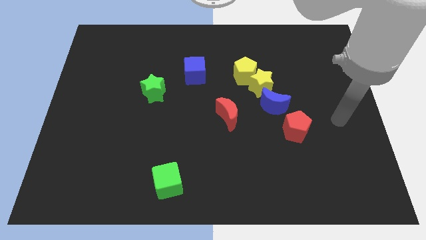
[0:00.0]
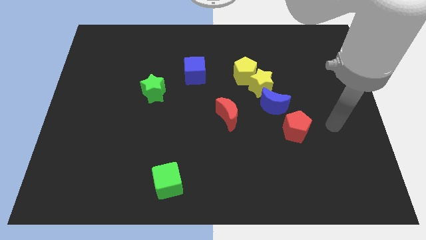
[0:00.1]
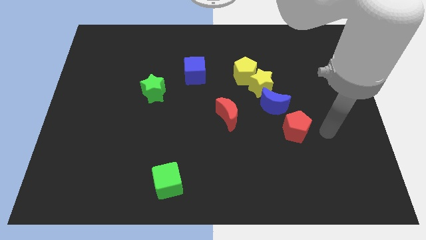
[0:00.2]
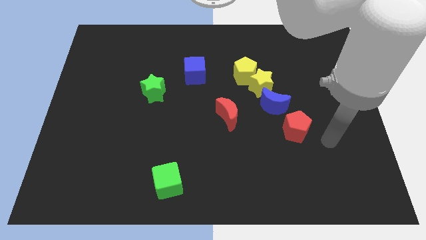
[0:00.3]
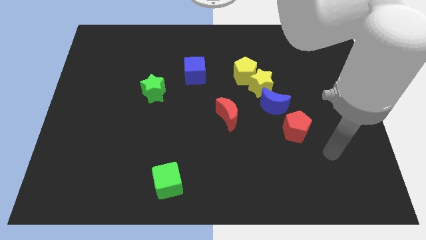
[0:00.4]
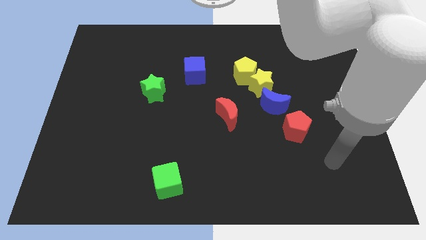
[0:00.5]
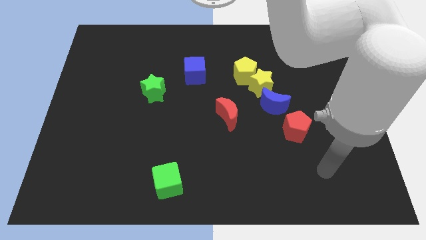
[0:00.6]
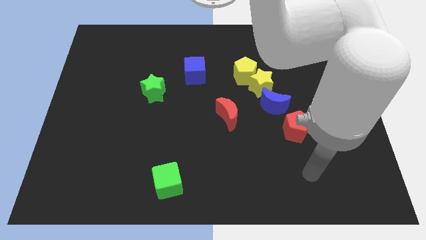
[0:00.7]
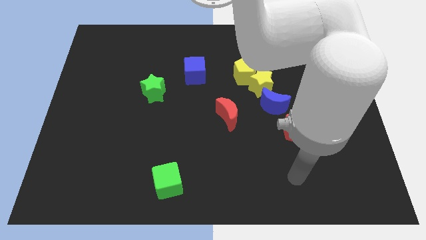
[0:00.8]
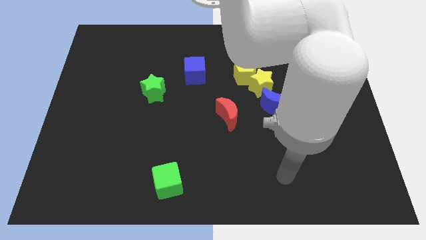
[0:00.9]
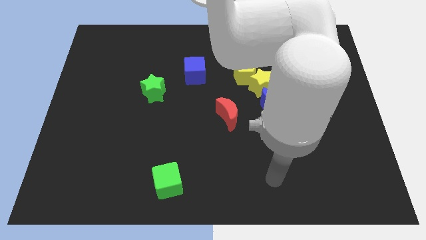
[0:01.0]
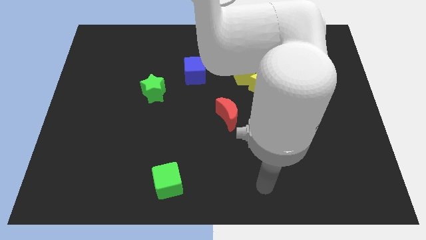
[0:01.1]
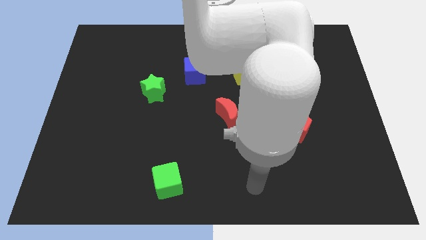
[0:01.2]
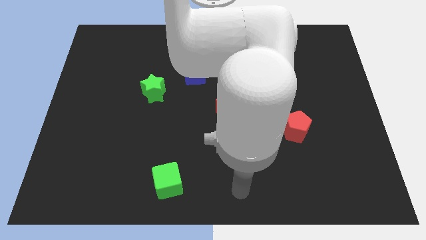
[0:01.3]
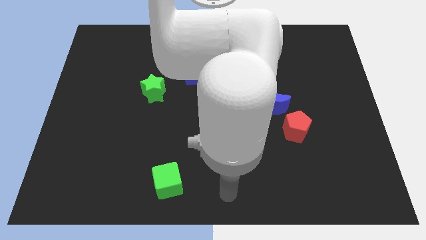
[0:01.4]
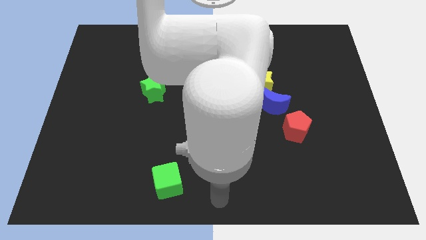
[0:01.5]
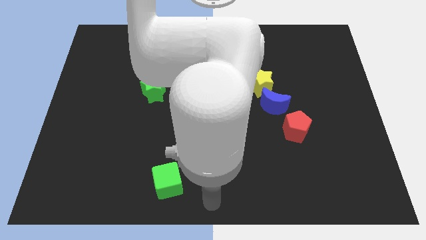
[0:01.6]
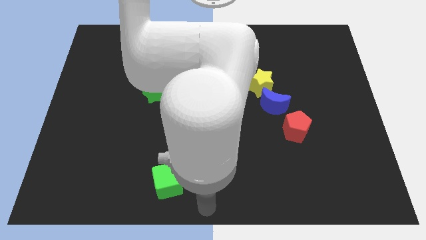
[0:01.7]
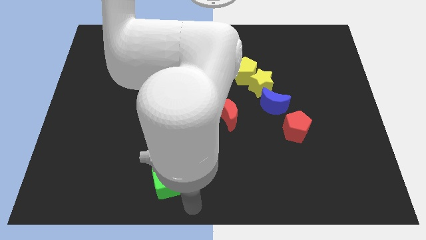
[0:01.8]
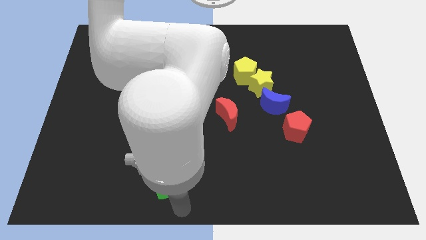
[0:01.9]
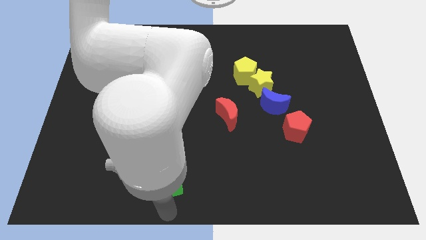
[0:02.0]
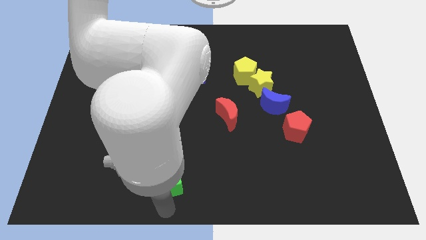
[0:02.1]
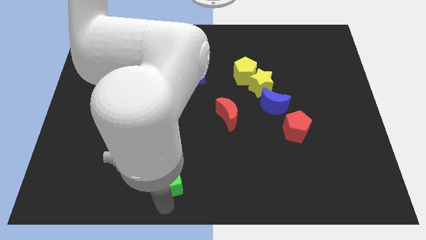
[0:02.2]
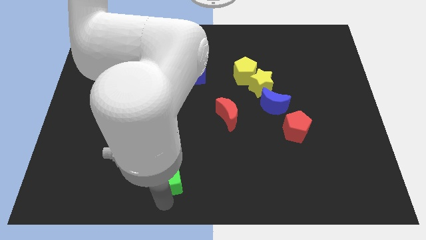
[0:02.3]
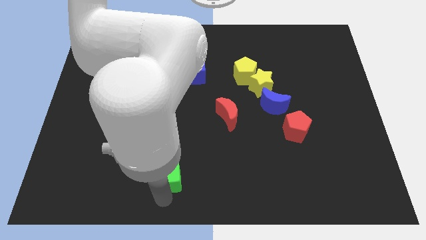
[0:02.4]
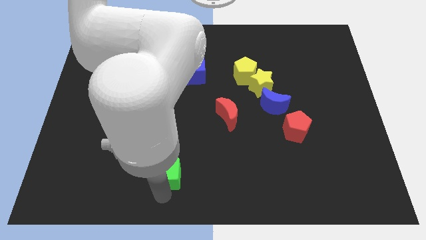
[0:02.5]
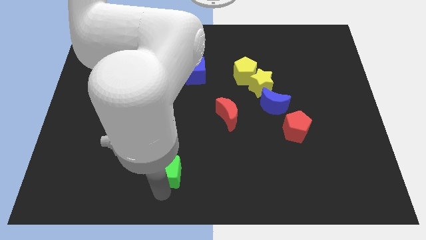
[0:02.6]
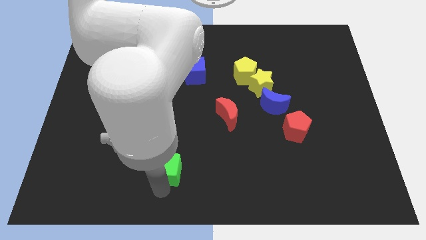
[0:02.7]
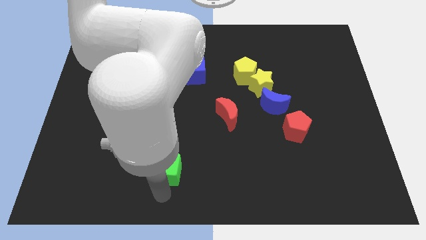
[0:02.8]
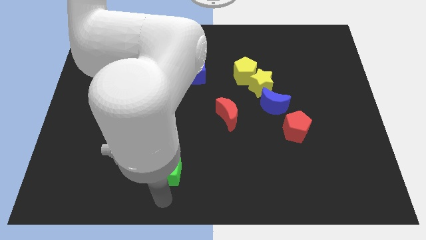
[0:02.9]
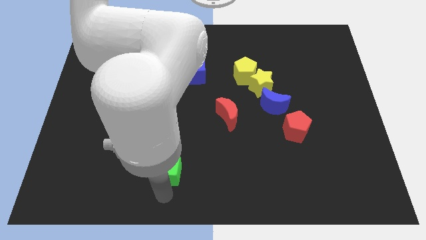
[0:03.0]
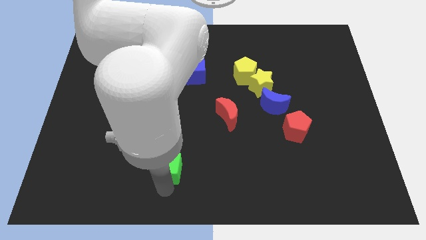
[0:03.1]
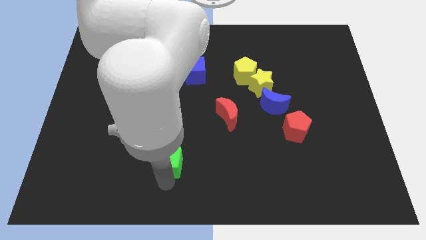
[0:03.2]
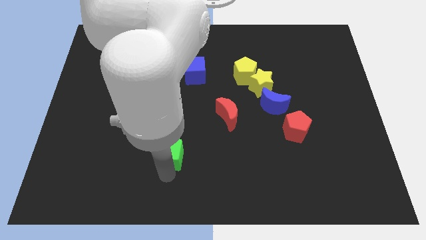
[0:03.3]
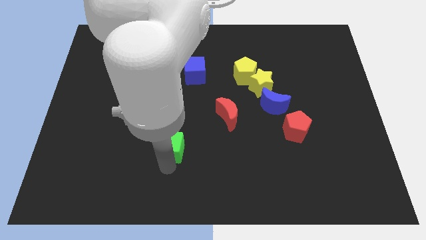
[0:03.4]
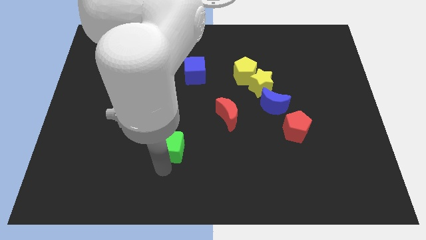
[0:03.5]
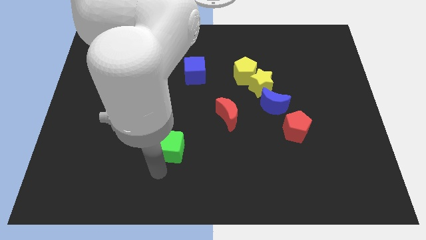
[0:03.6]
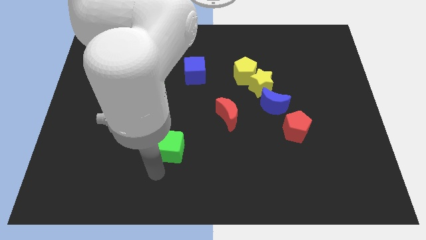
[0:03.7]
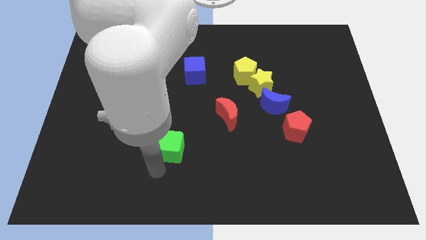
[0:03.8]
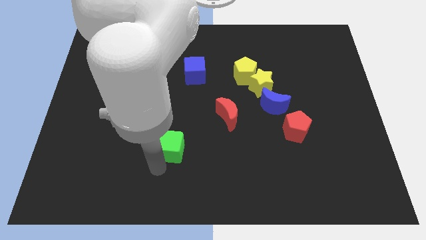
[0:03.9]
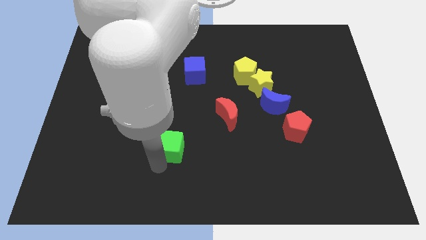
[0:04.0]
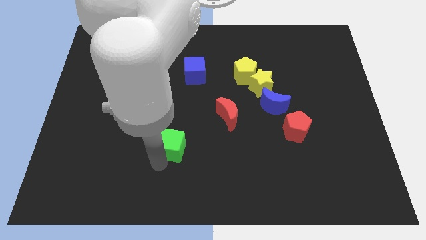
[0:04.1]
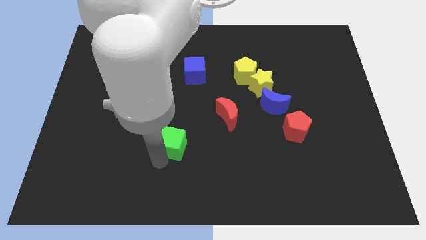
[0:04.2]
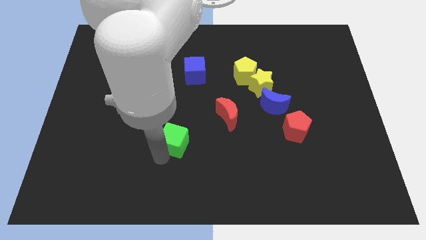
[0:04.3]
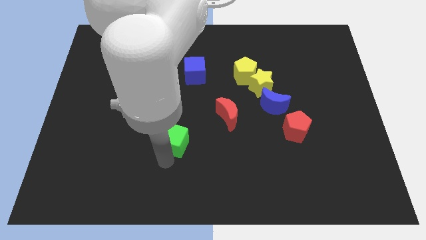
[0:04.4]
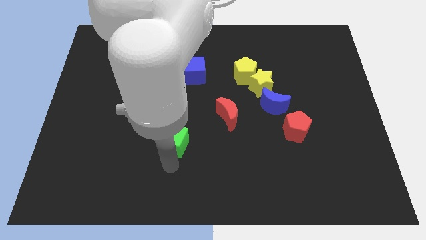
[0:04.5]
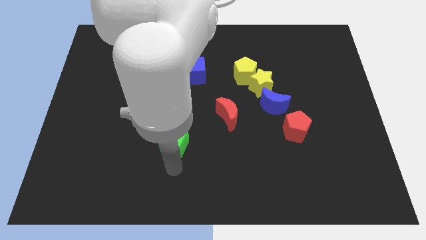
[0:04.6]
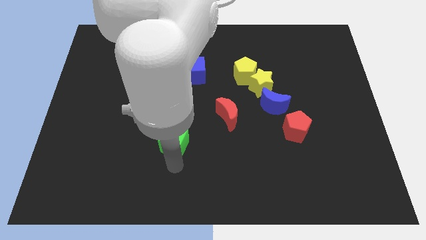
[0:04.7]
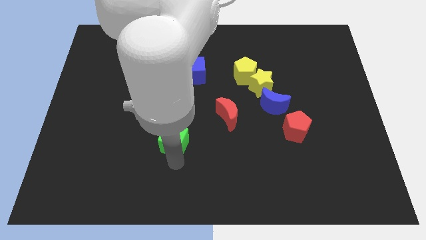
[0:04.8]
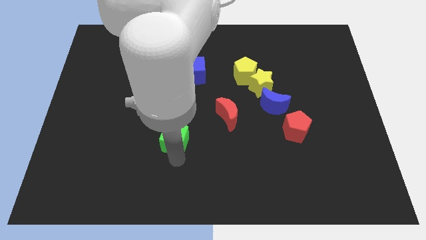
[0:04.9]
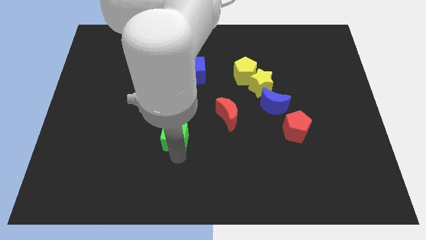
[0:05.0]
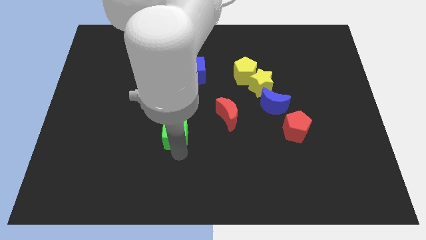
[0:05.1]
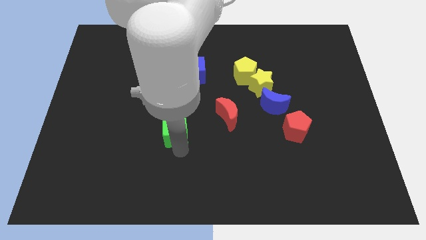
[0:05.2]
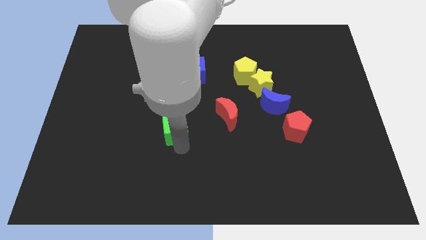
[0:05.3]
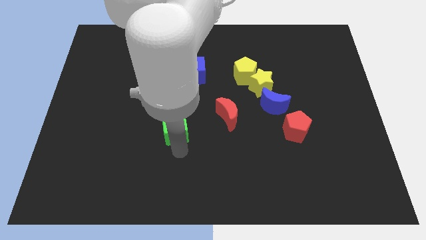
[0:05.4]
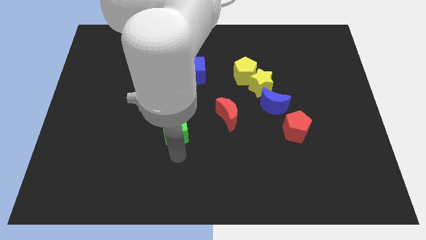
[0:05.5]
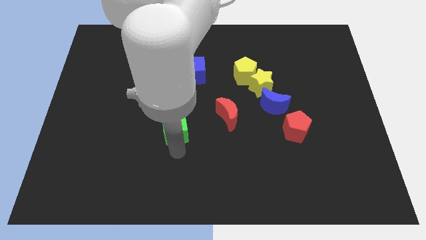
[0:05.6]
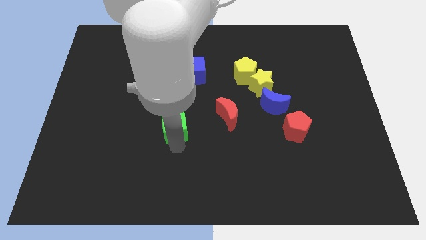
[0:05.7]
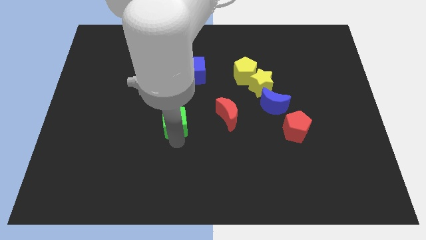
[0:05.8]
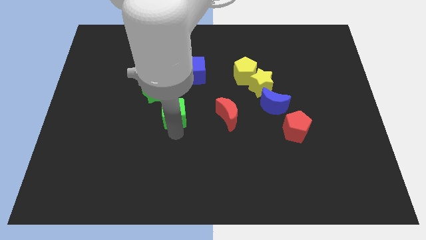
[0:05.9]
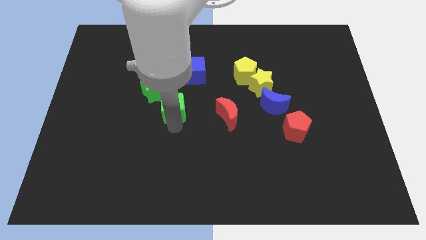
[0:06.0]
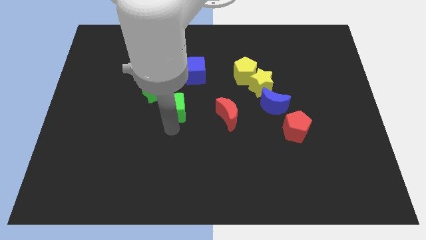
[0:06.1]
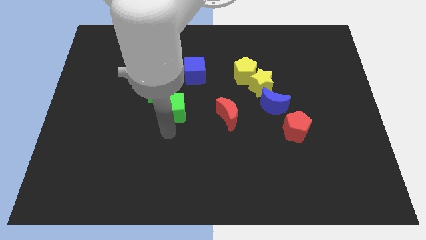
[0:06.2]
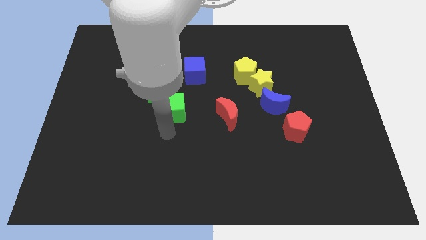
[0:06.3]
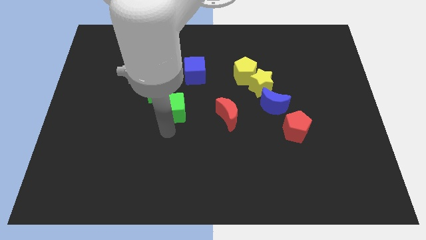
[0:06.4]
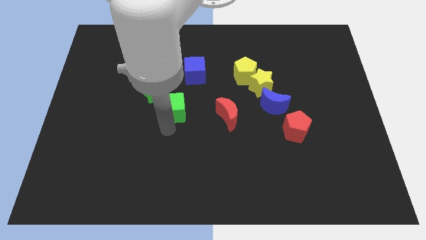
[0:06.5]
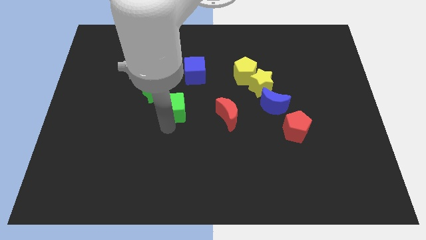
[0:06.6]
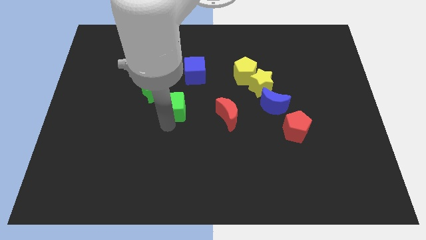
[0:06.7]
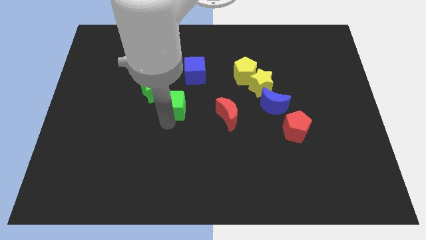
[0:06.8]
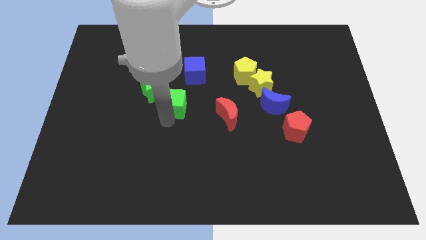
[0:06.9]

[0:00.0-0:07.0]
slide the green cube up

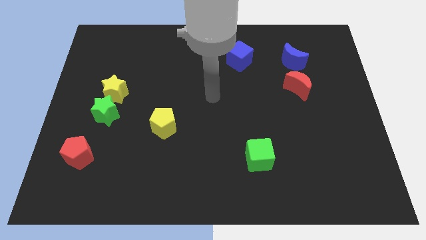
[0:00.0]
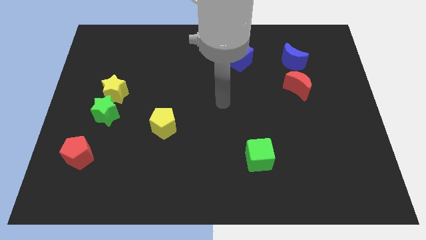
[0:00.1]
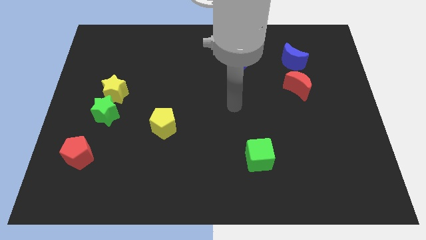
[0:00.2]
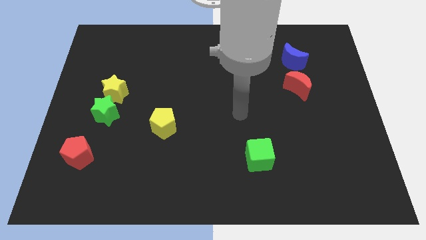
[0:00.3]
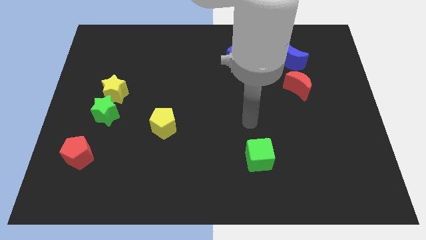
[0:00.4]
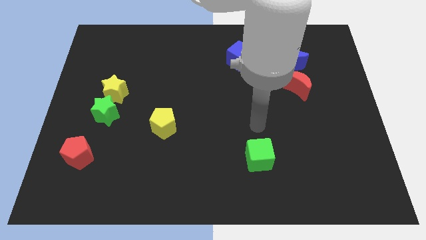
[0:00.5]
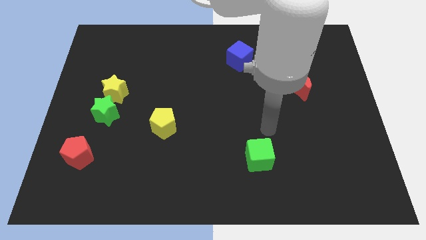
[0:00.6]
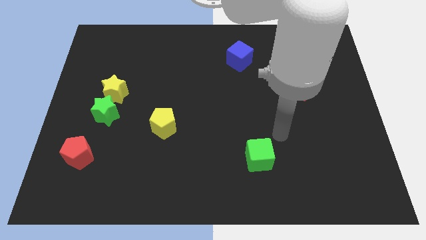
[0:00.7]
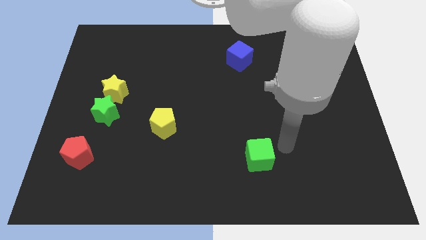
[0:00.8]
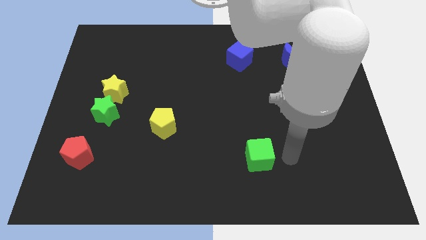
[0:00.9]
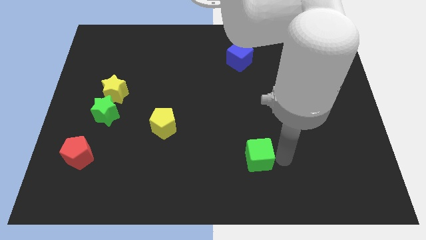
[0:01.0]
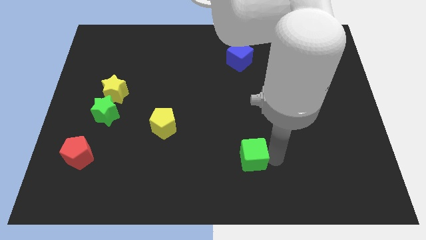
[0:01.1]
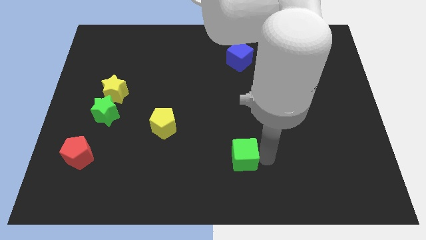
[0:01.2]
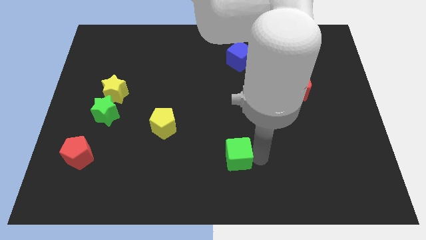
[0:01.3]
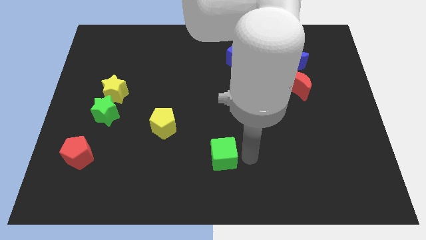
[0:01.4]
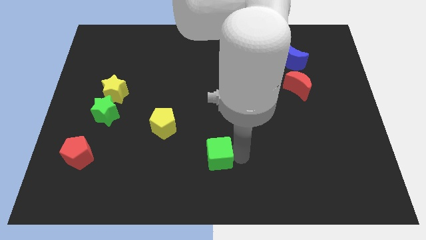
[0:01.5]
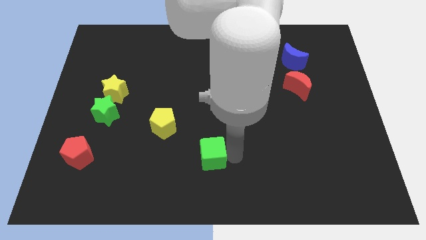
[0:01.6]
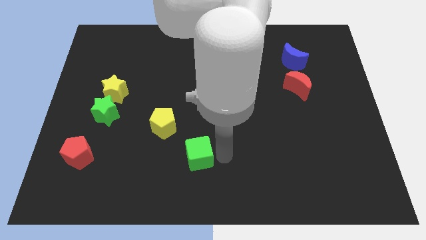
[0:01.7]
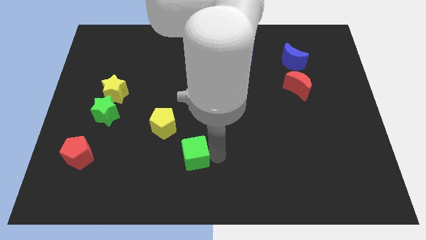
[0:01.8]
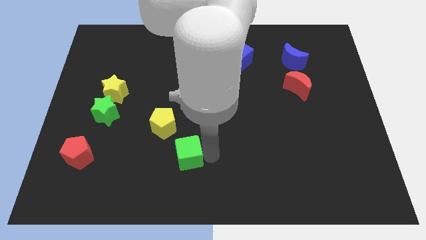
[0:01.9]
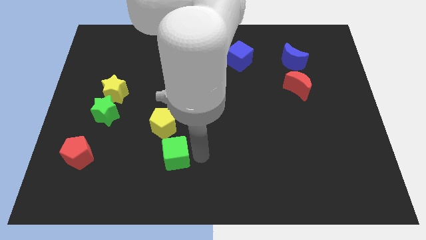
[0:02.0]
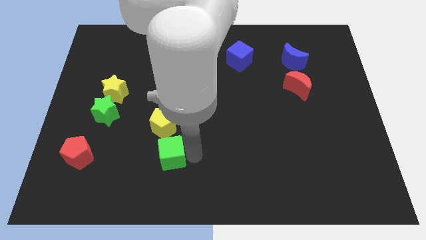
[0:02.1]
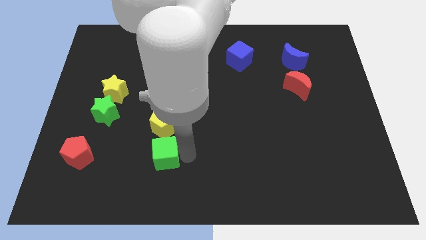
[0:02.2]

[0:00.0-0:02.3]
push the green cube to the left
